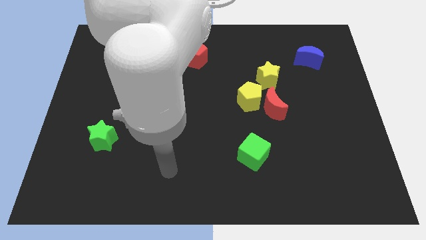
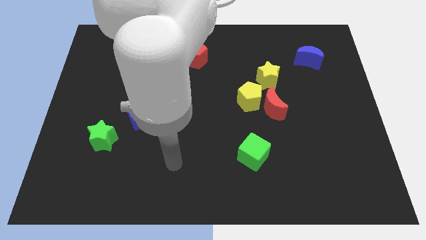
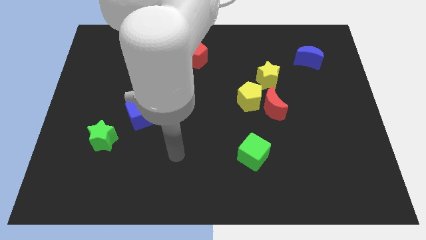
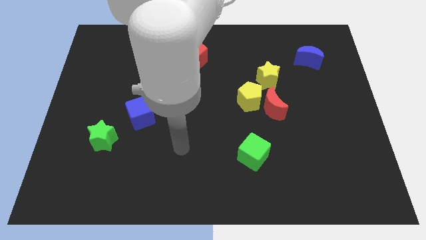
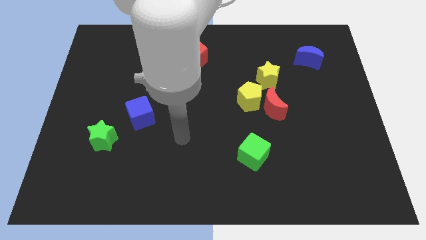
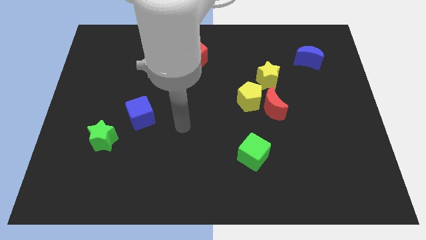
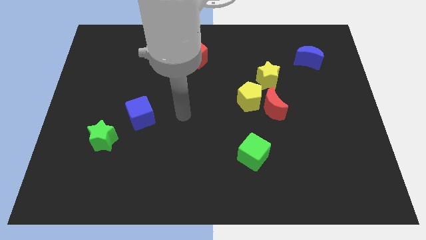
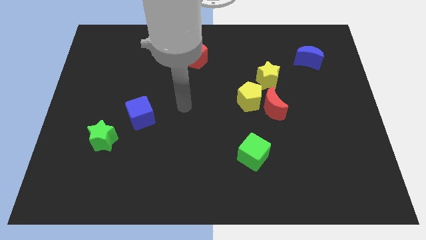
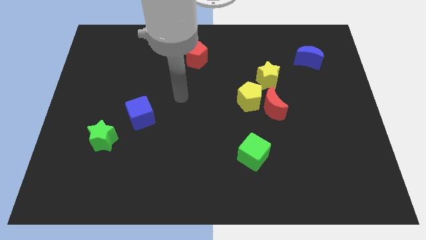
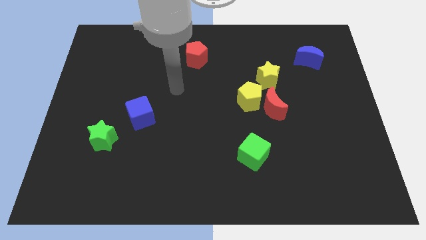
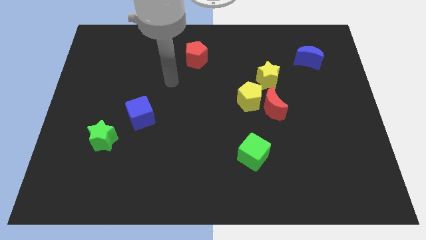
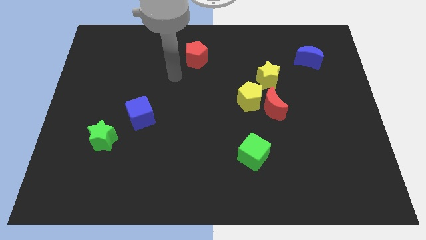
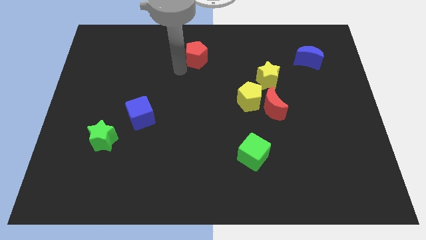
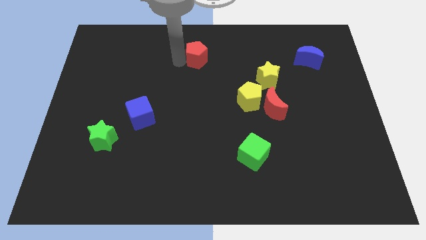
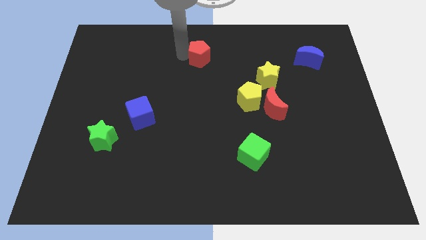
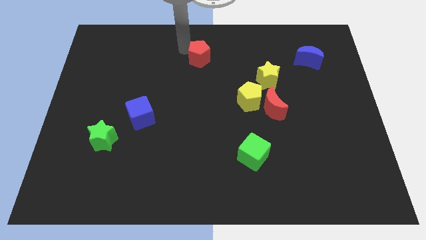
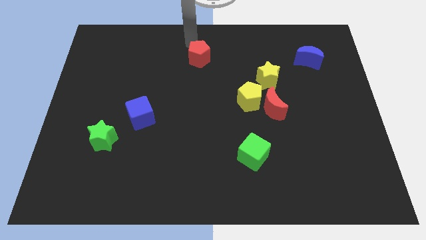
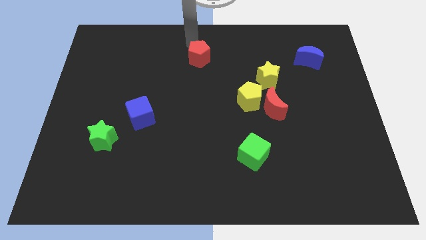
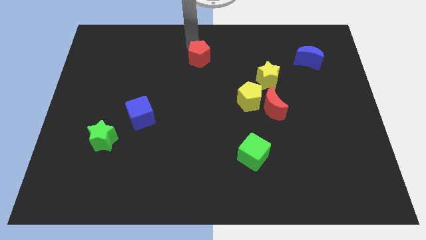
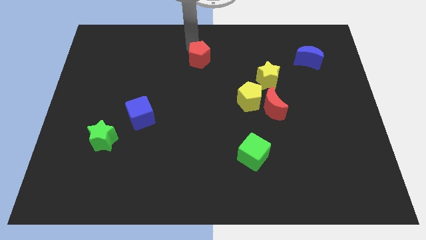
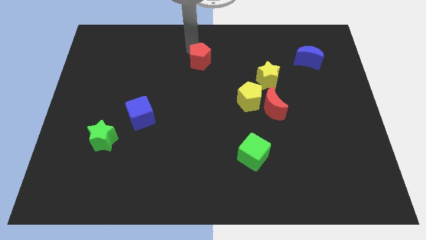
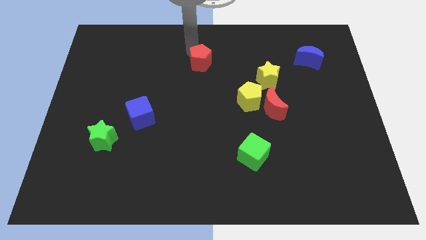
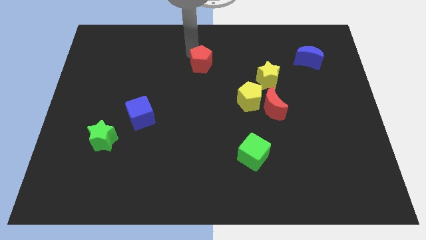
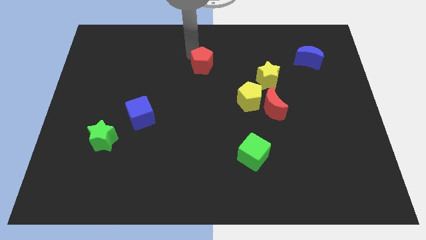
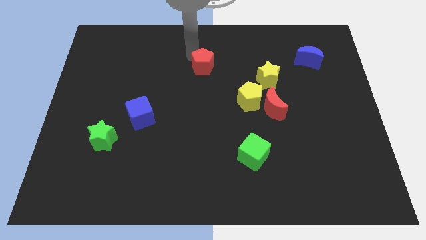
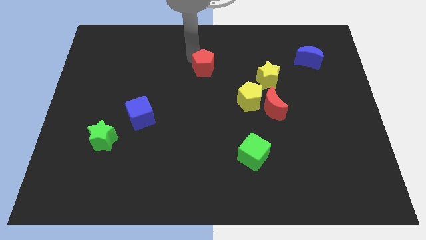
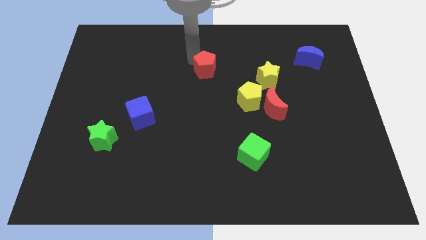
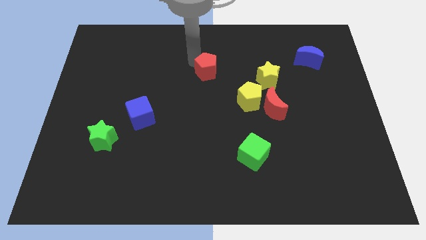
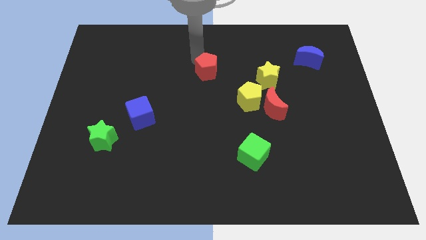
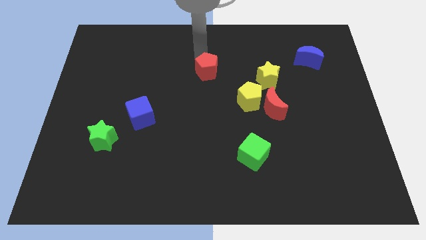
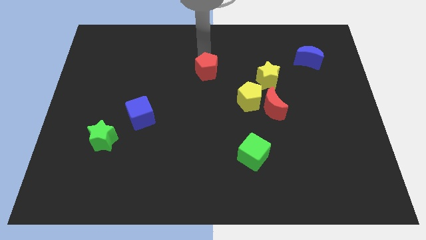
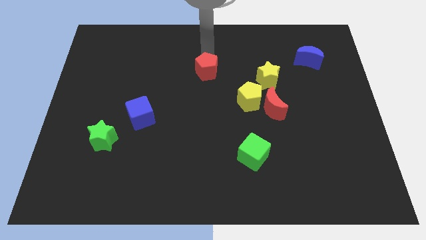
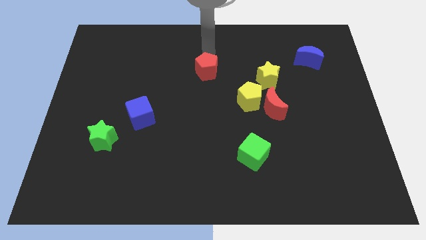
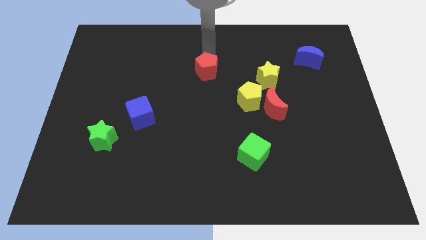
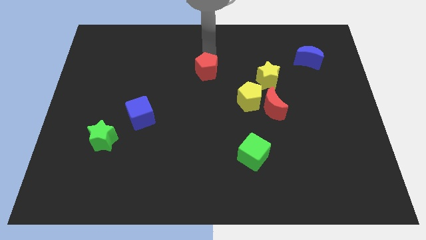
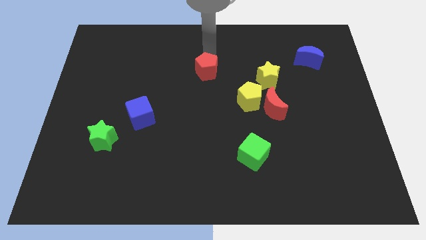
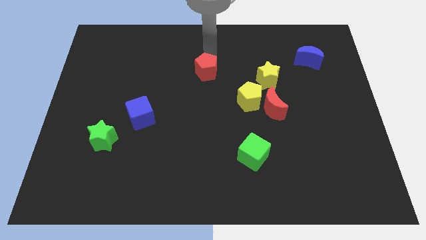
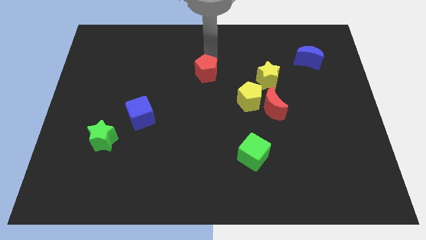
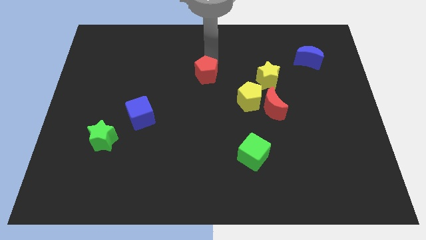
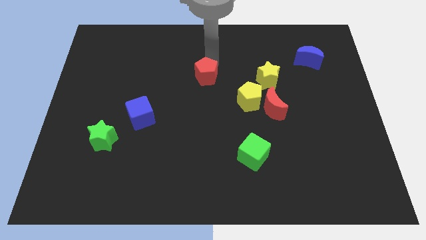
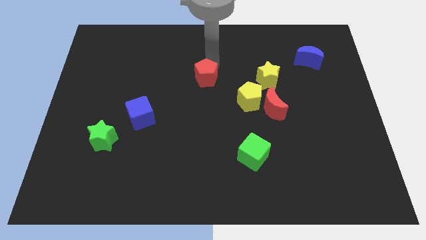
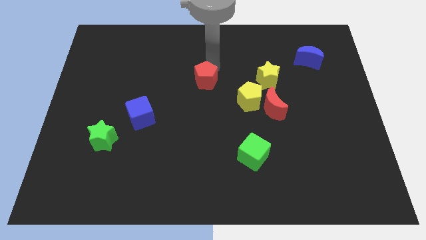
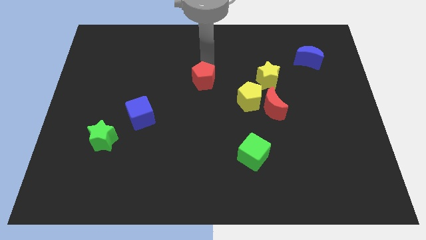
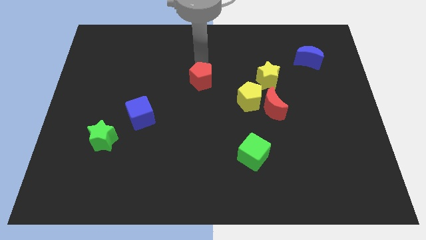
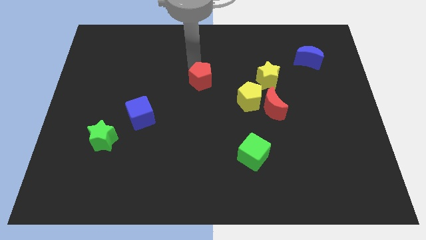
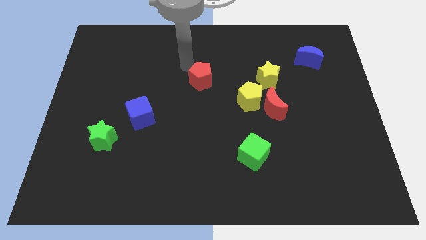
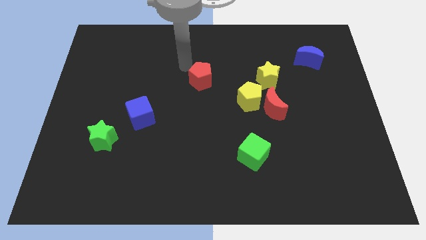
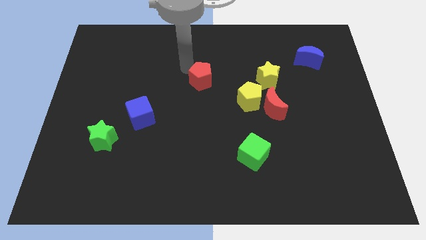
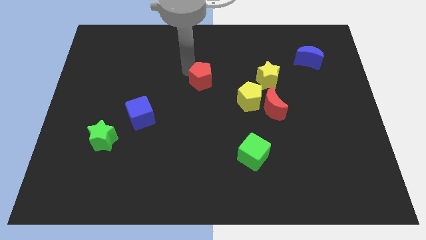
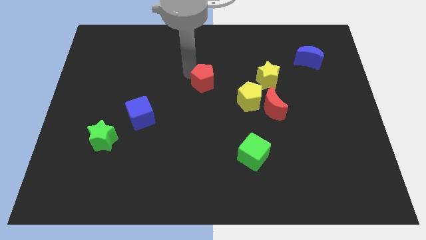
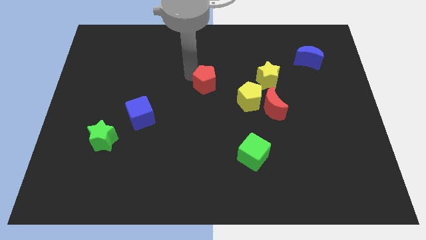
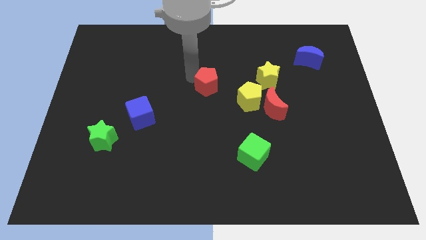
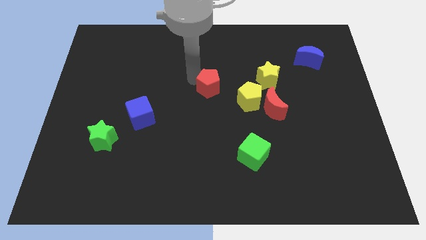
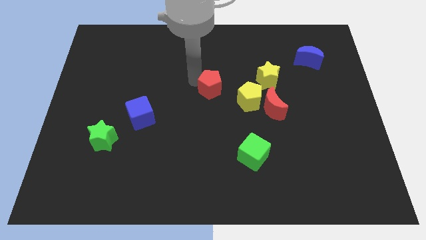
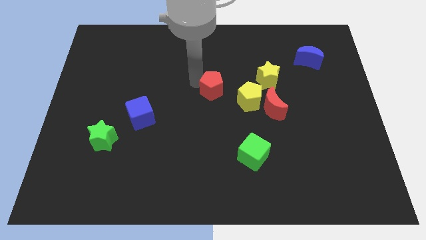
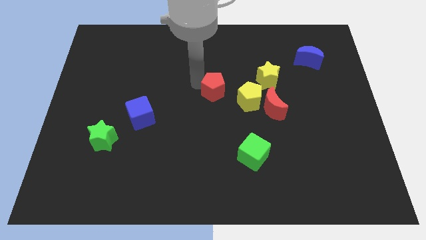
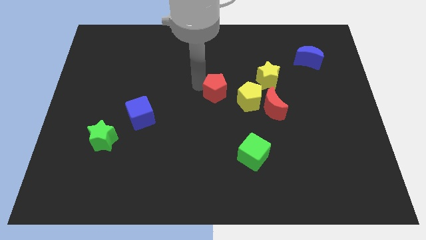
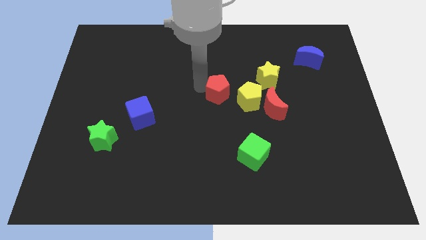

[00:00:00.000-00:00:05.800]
move the red pentagon to the left of the red moon
